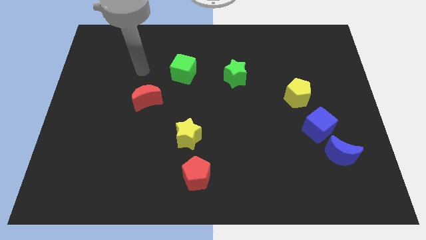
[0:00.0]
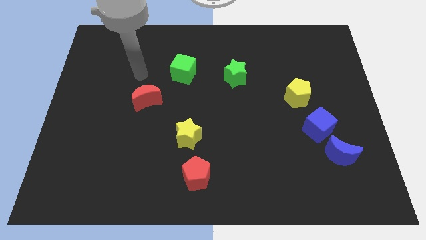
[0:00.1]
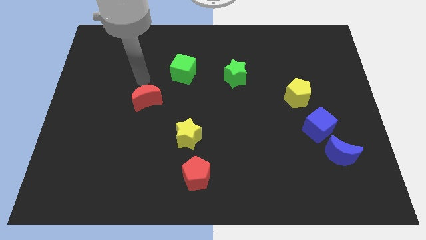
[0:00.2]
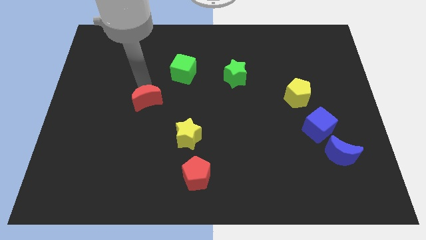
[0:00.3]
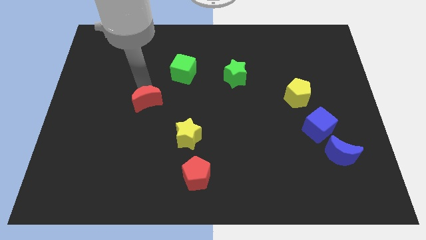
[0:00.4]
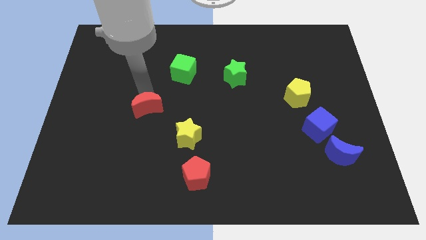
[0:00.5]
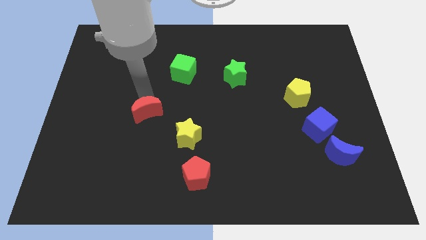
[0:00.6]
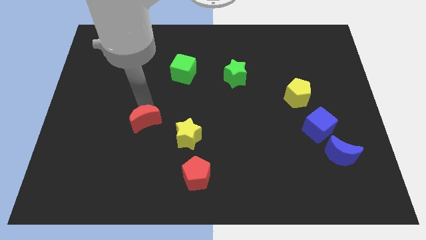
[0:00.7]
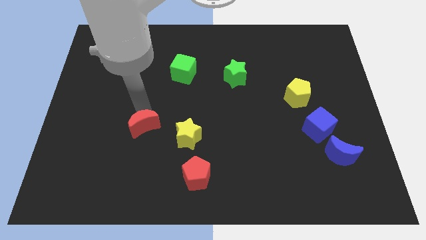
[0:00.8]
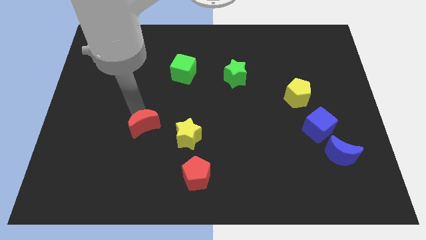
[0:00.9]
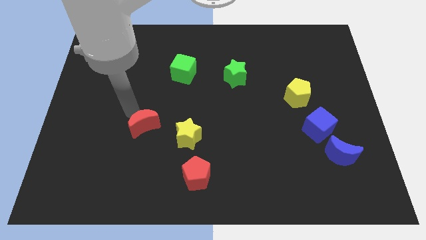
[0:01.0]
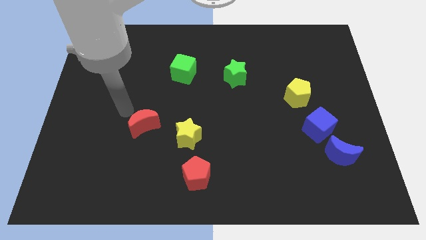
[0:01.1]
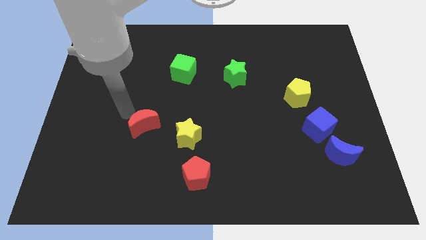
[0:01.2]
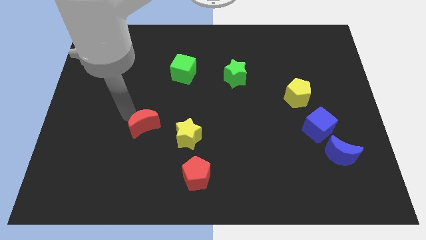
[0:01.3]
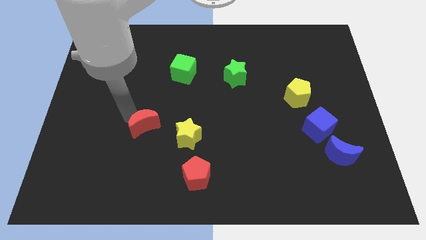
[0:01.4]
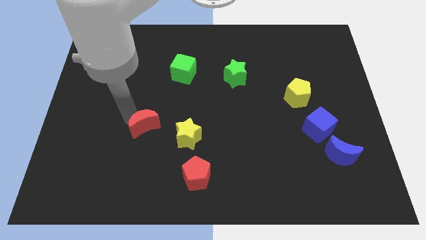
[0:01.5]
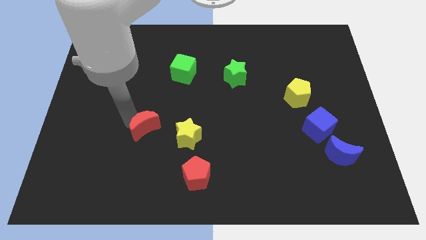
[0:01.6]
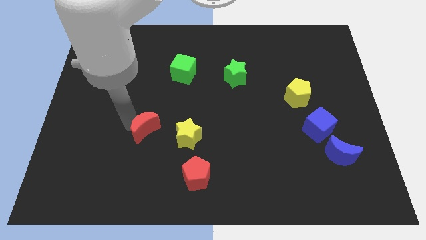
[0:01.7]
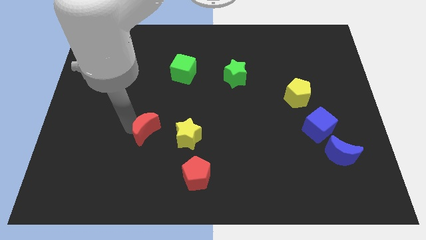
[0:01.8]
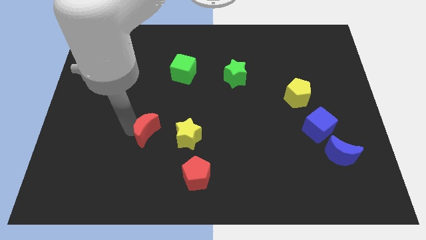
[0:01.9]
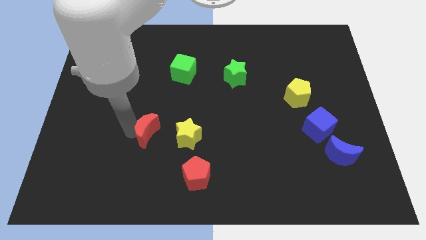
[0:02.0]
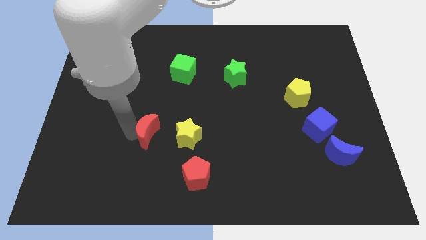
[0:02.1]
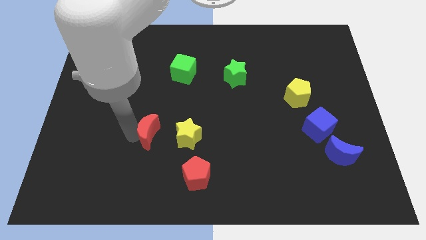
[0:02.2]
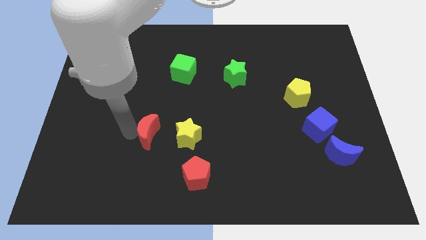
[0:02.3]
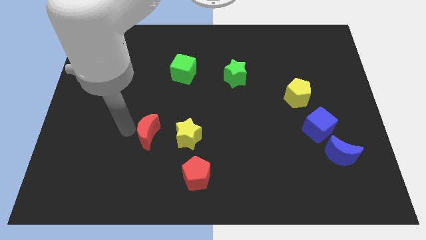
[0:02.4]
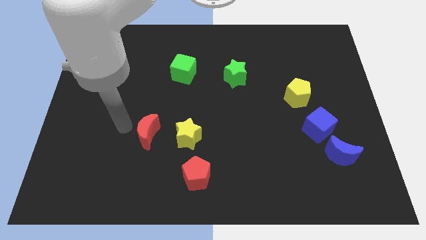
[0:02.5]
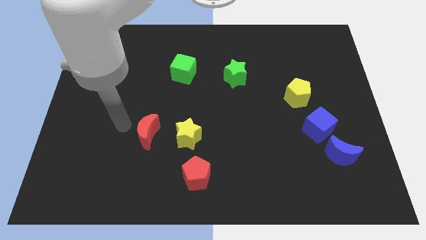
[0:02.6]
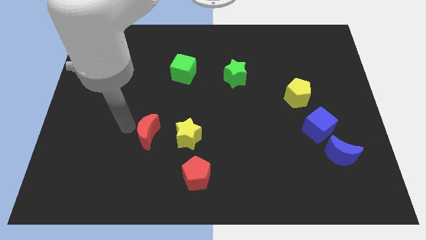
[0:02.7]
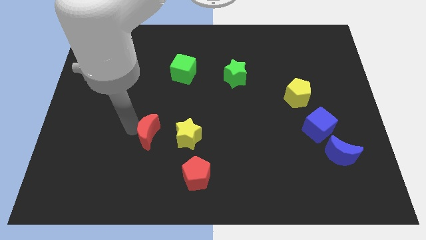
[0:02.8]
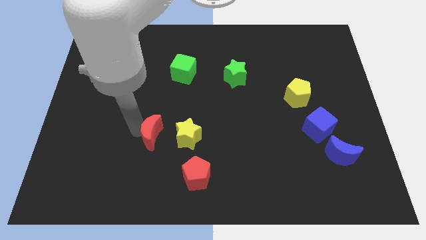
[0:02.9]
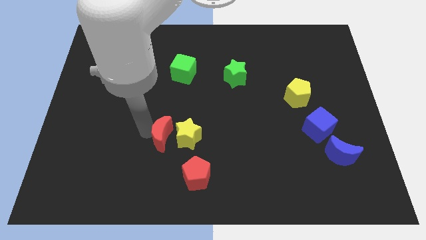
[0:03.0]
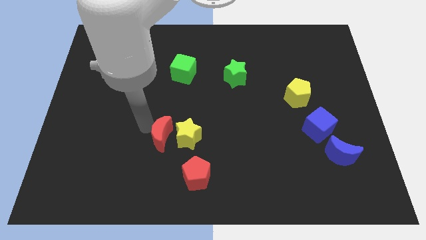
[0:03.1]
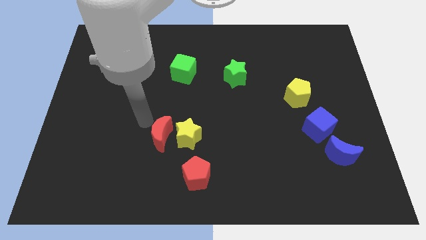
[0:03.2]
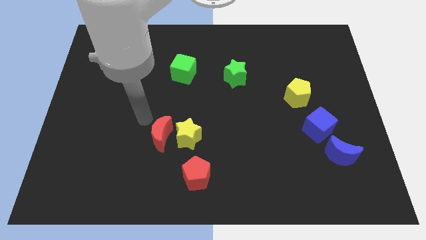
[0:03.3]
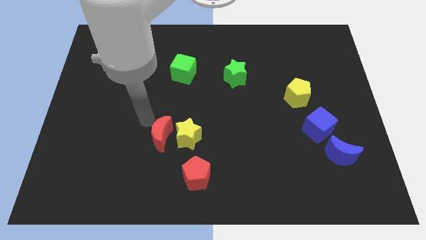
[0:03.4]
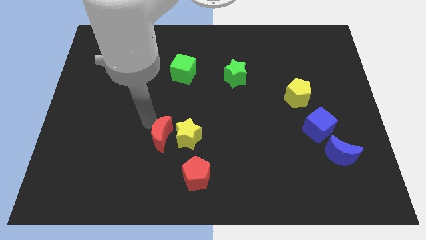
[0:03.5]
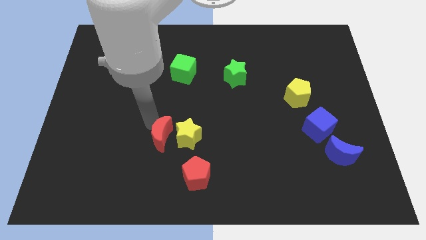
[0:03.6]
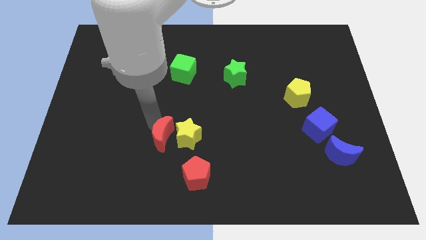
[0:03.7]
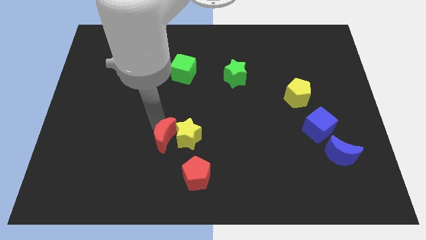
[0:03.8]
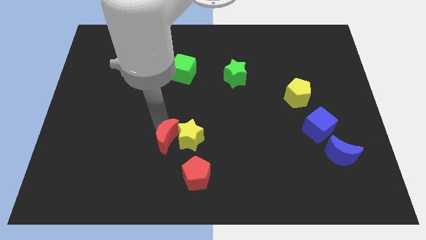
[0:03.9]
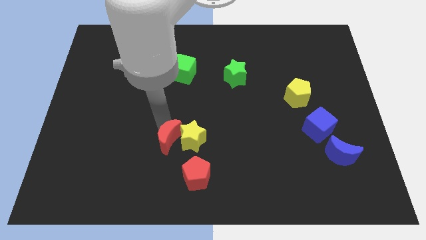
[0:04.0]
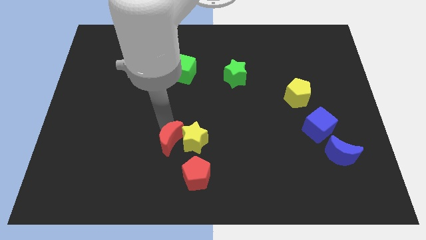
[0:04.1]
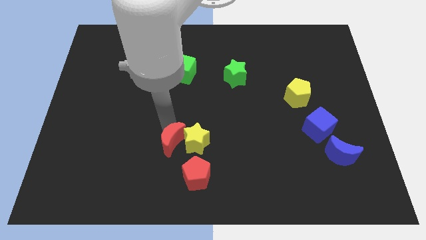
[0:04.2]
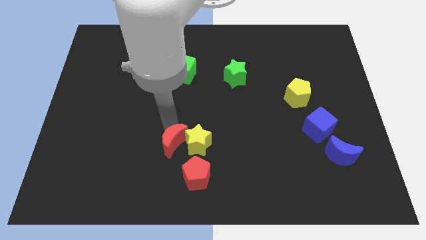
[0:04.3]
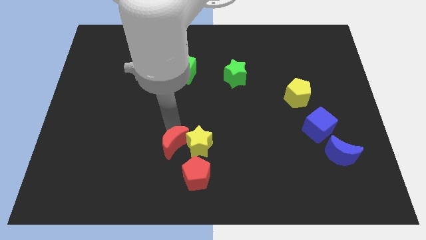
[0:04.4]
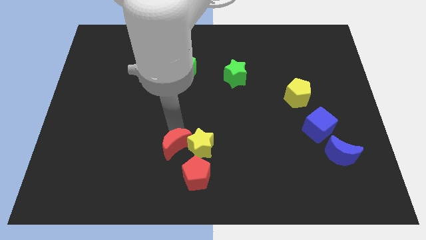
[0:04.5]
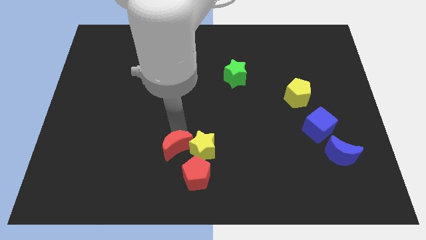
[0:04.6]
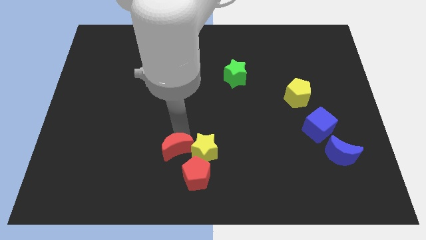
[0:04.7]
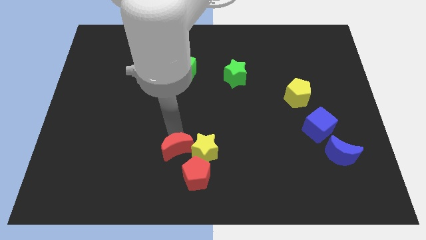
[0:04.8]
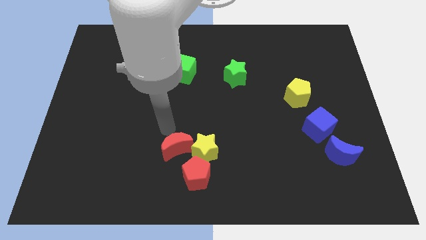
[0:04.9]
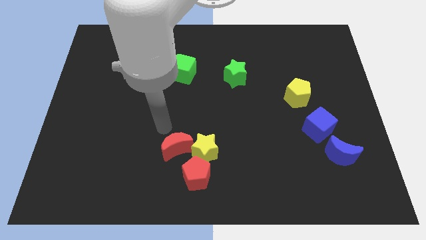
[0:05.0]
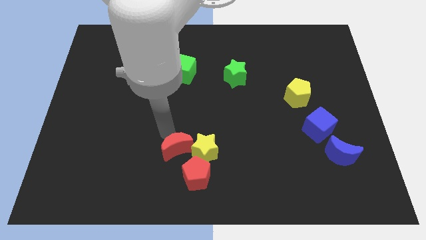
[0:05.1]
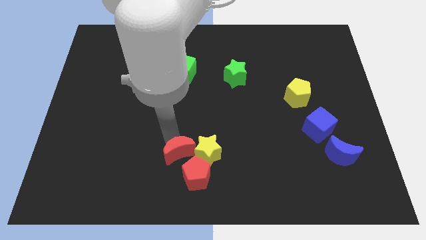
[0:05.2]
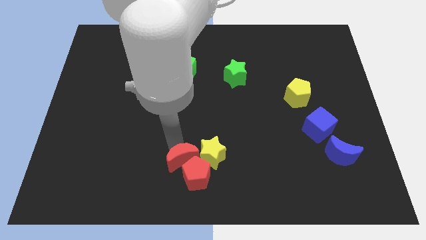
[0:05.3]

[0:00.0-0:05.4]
put the red moon towards the red pentagon

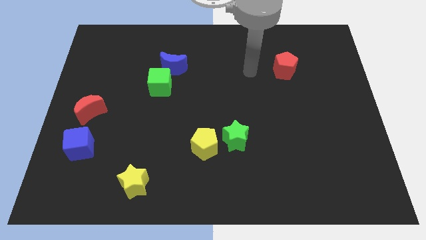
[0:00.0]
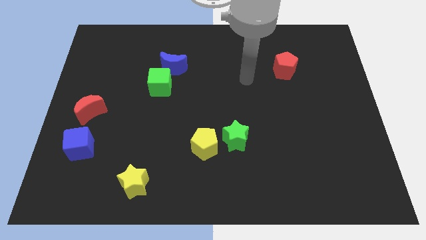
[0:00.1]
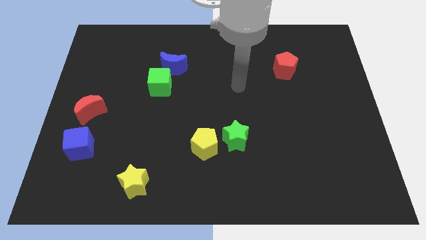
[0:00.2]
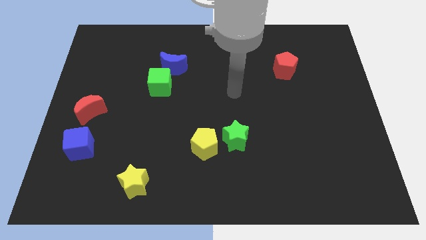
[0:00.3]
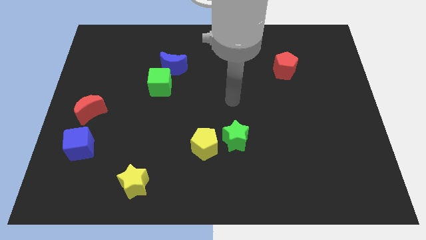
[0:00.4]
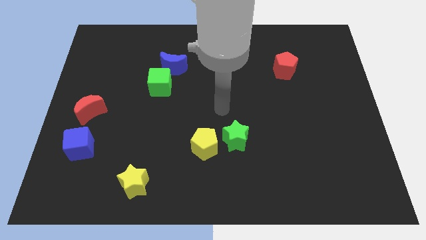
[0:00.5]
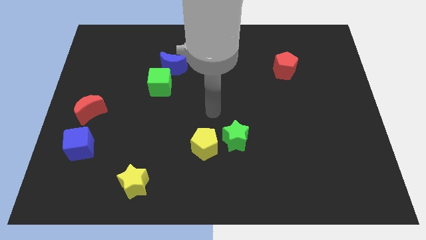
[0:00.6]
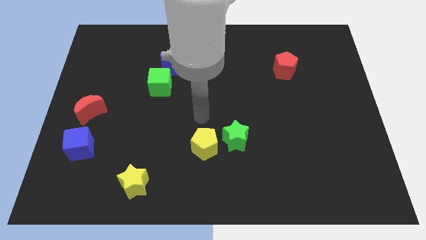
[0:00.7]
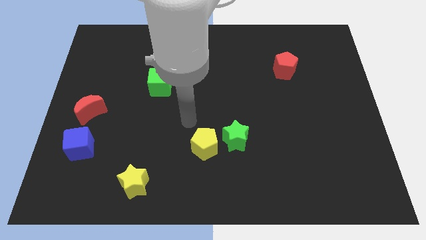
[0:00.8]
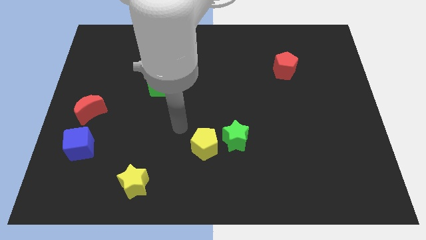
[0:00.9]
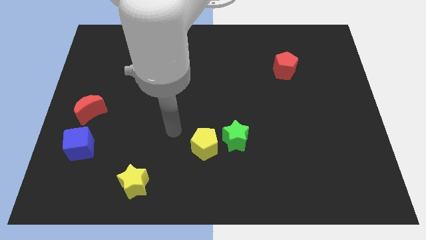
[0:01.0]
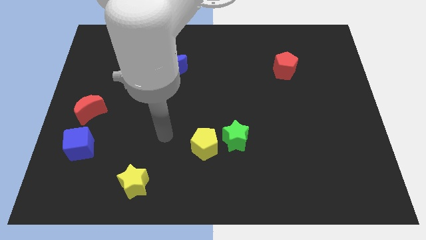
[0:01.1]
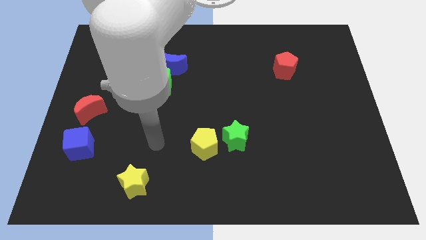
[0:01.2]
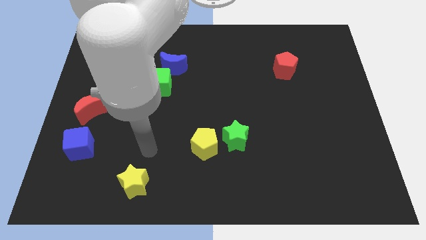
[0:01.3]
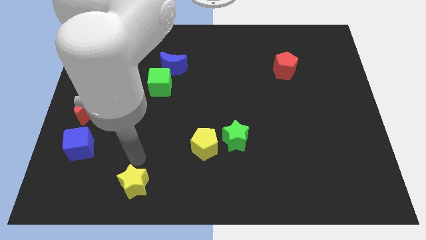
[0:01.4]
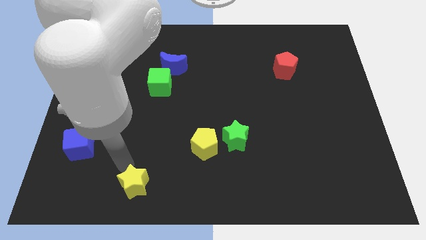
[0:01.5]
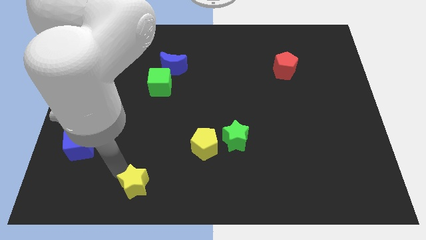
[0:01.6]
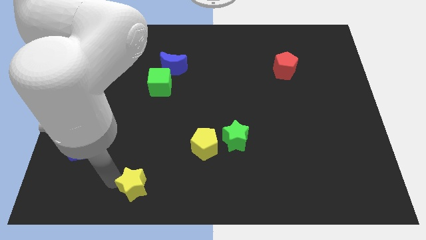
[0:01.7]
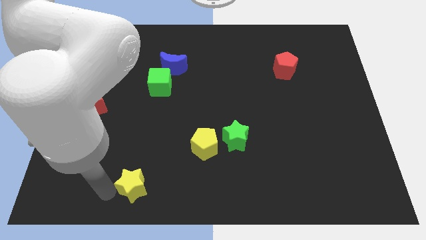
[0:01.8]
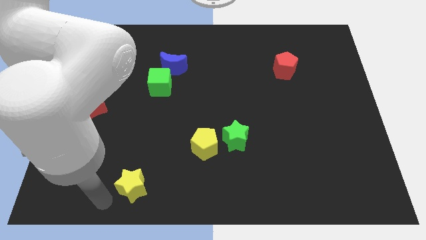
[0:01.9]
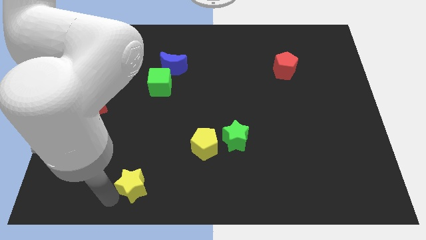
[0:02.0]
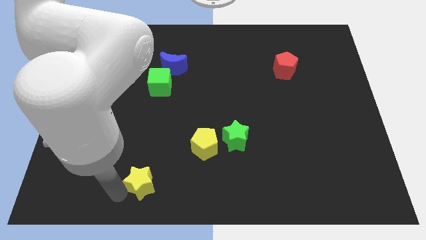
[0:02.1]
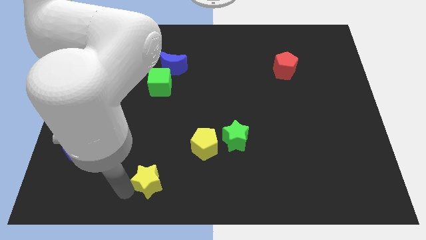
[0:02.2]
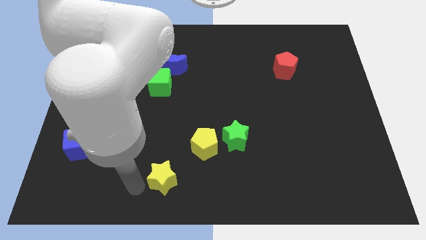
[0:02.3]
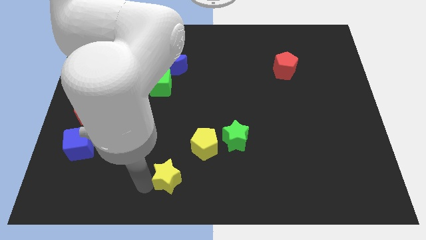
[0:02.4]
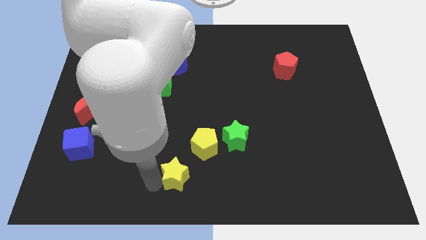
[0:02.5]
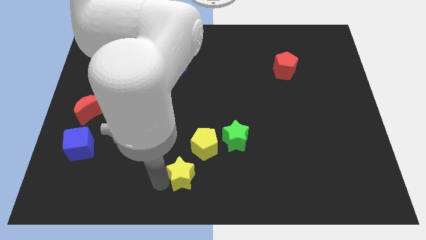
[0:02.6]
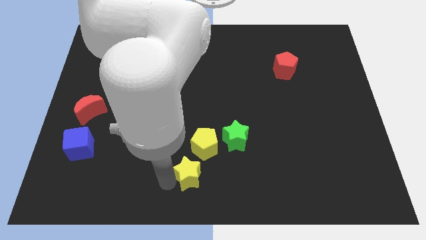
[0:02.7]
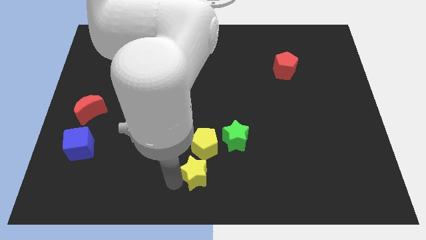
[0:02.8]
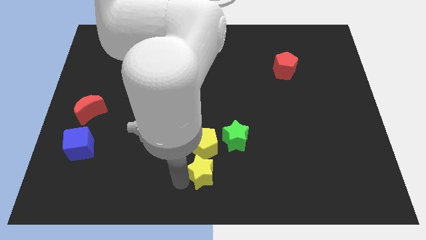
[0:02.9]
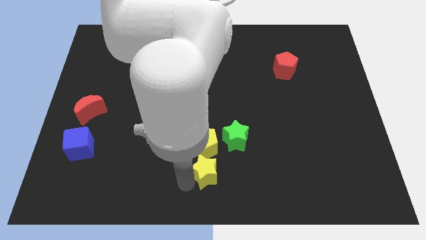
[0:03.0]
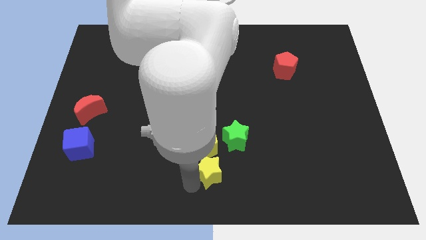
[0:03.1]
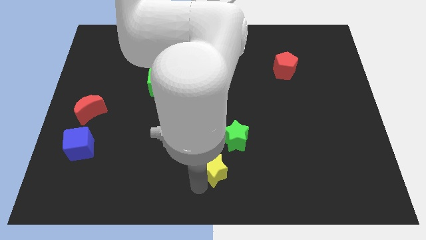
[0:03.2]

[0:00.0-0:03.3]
slide the yellow star towards the yellow pentagon
